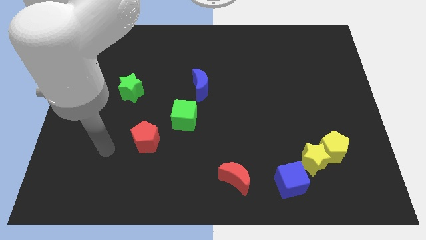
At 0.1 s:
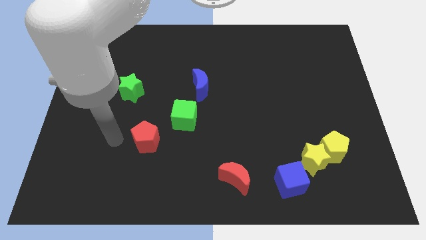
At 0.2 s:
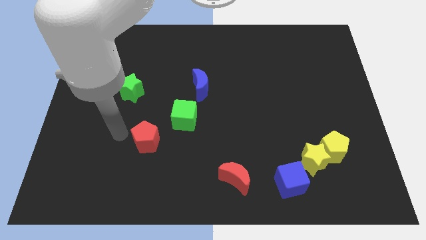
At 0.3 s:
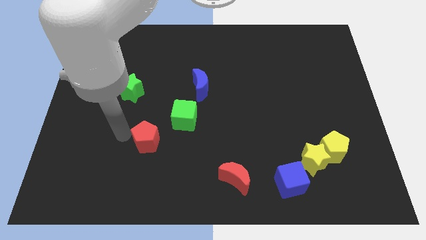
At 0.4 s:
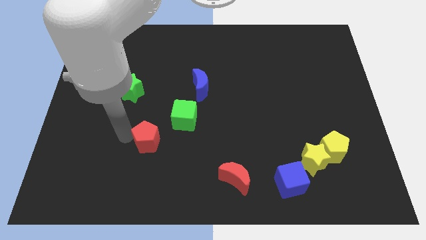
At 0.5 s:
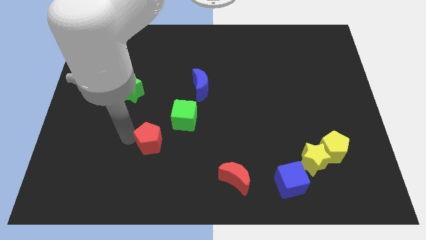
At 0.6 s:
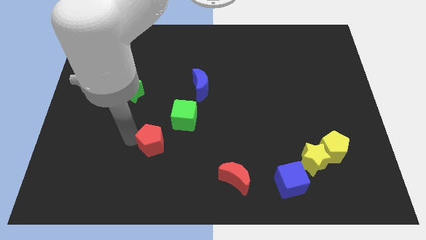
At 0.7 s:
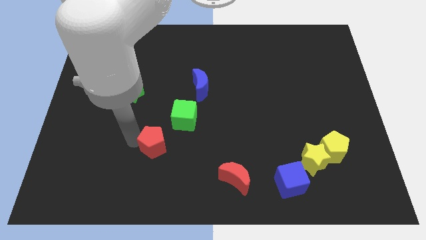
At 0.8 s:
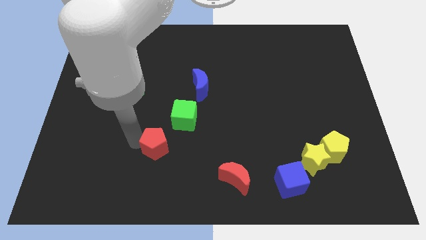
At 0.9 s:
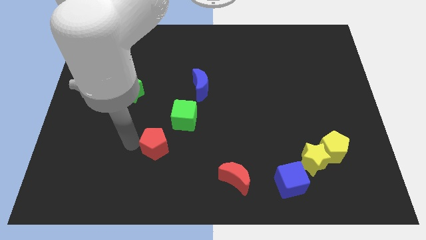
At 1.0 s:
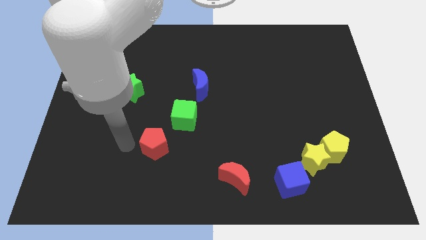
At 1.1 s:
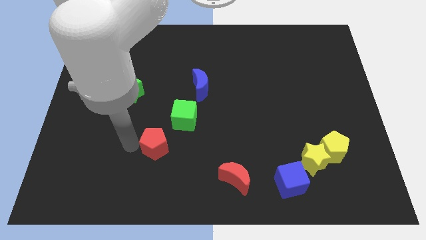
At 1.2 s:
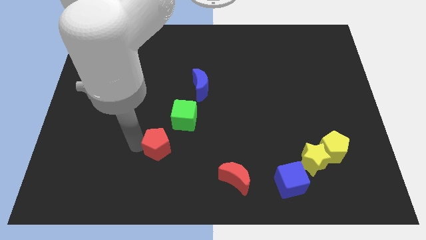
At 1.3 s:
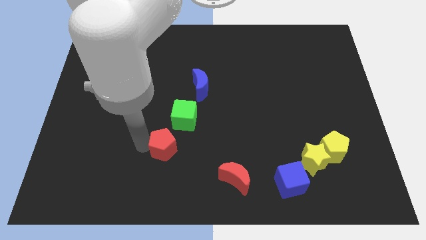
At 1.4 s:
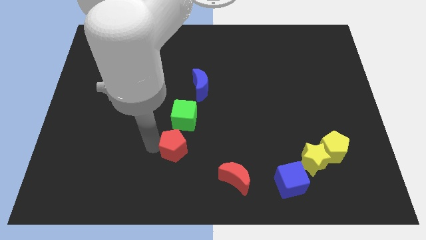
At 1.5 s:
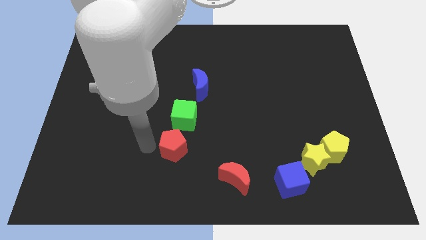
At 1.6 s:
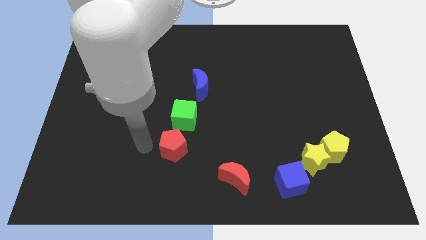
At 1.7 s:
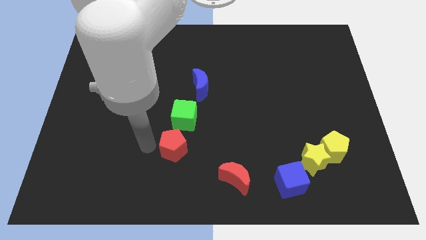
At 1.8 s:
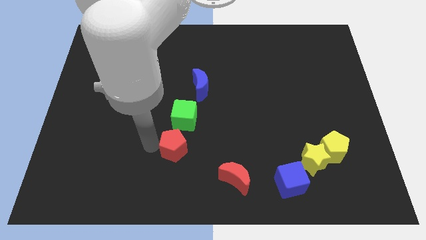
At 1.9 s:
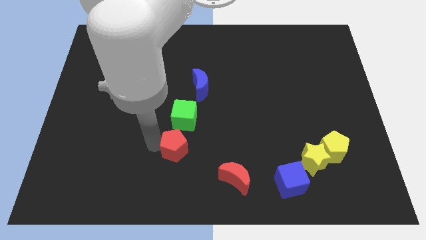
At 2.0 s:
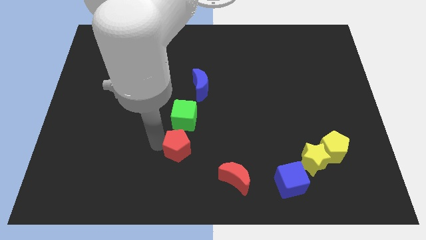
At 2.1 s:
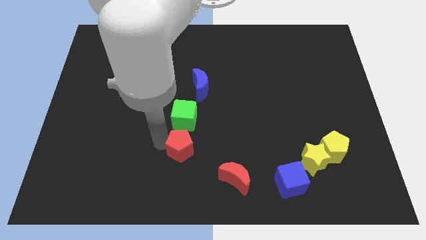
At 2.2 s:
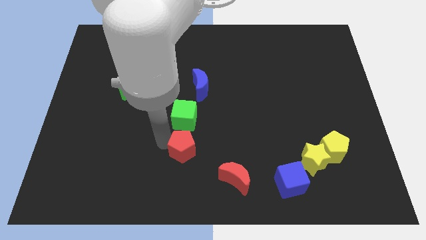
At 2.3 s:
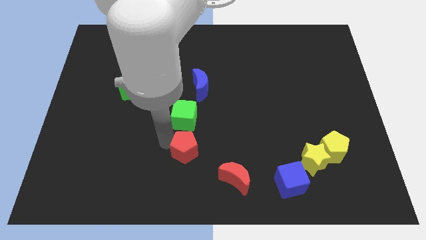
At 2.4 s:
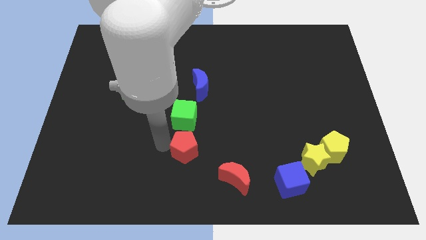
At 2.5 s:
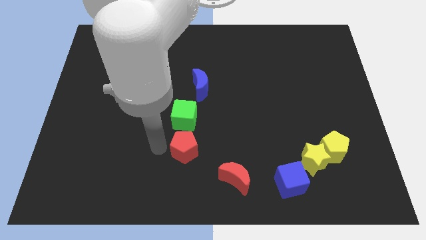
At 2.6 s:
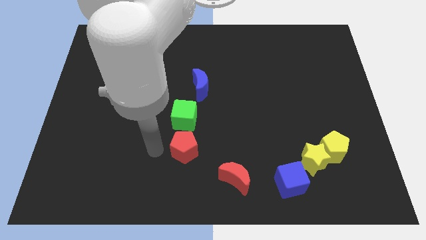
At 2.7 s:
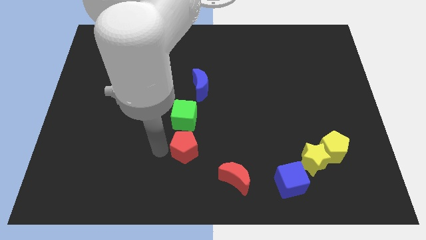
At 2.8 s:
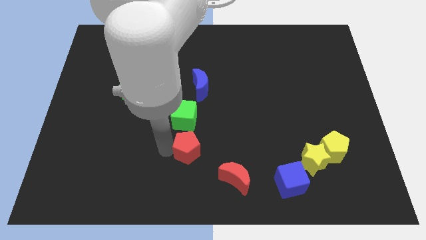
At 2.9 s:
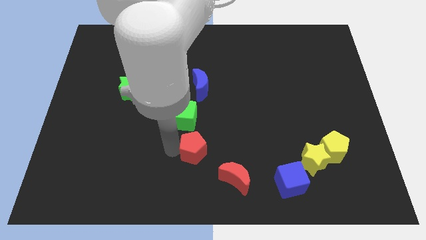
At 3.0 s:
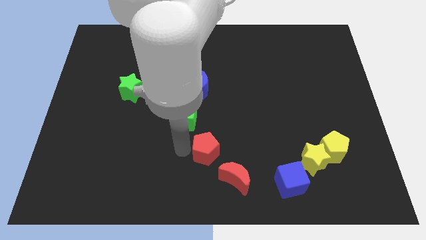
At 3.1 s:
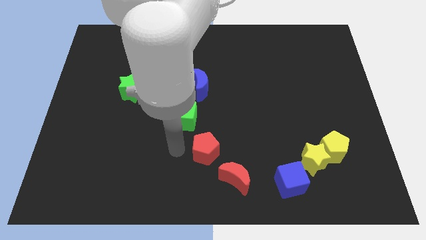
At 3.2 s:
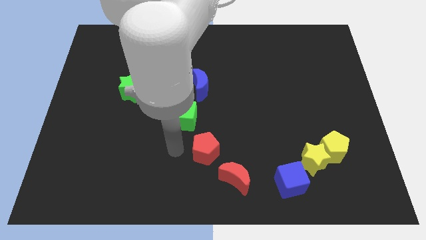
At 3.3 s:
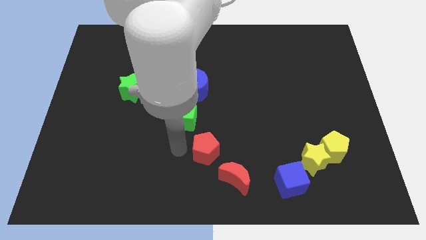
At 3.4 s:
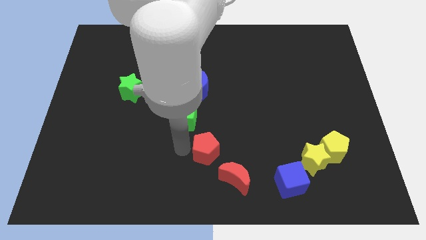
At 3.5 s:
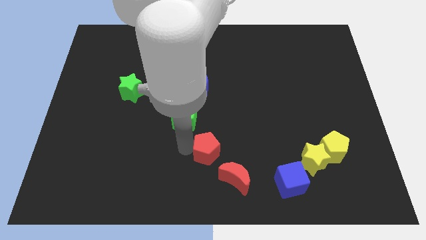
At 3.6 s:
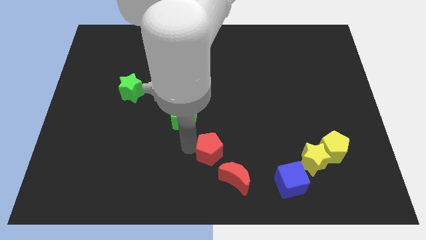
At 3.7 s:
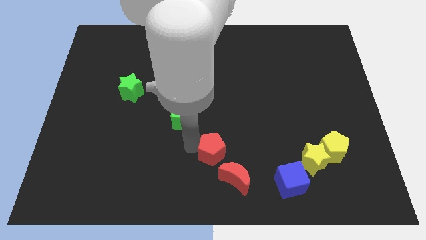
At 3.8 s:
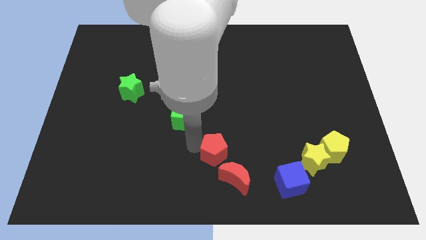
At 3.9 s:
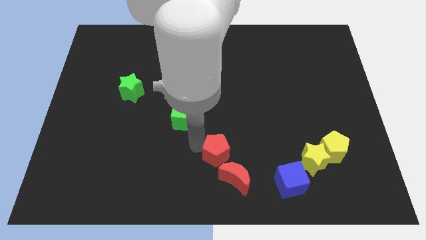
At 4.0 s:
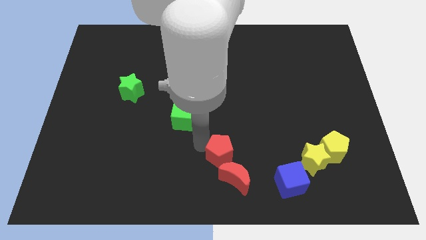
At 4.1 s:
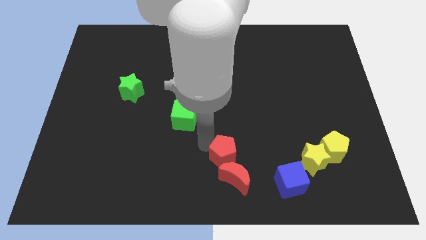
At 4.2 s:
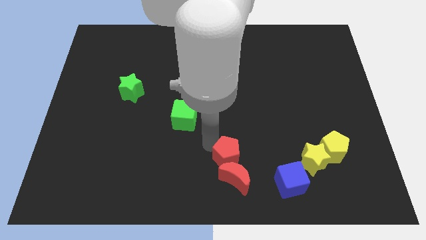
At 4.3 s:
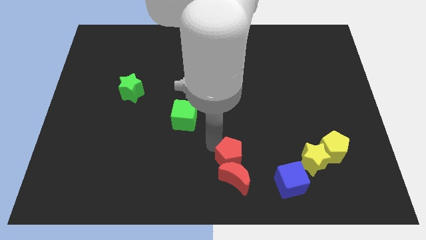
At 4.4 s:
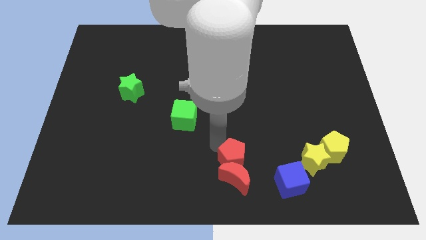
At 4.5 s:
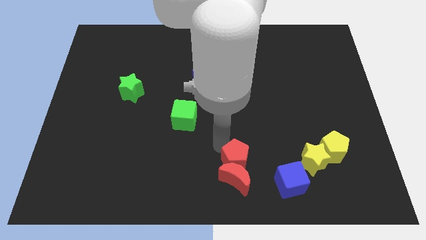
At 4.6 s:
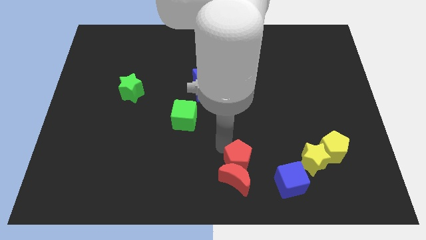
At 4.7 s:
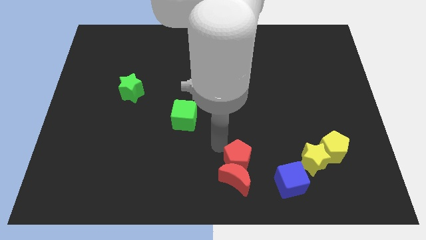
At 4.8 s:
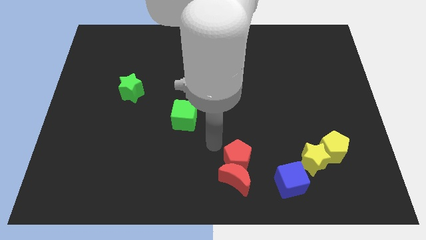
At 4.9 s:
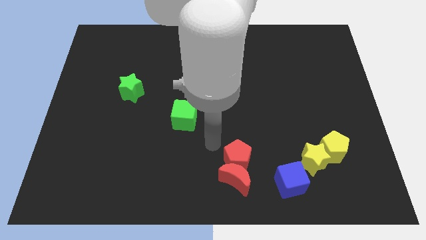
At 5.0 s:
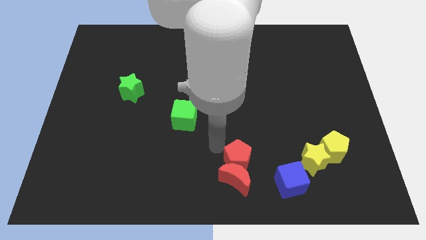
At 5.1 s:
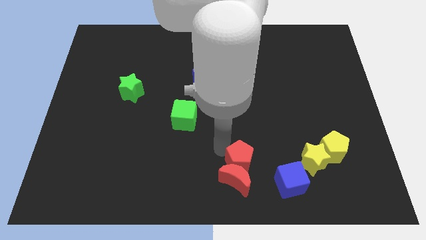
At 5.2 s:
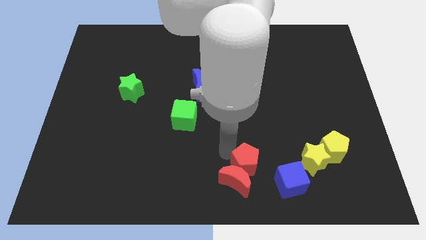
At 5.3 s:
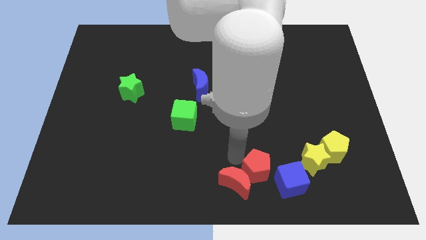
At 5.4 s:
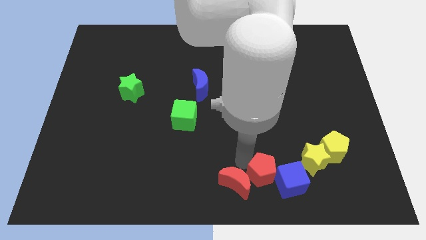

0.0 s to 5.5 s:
push the red pentagon next to the blue cube

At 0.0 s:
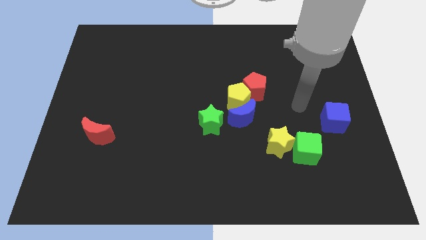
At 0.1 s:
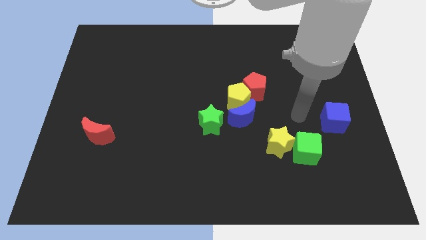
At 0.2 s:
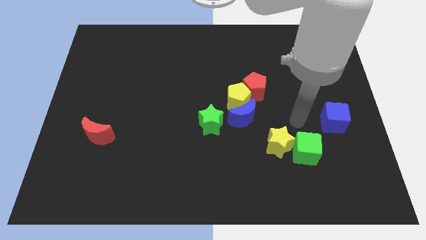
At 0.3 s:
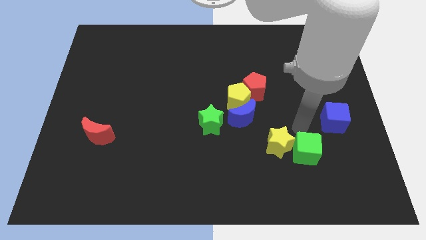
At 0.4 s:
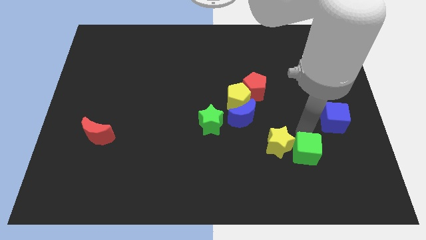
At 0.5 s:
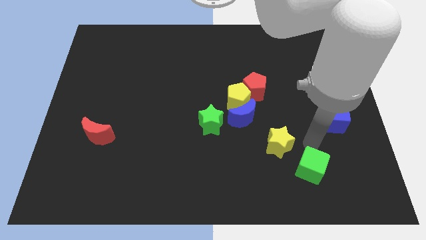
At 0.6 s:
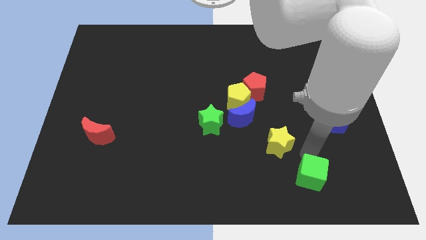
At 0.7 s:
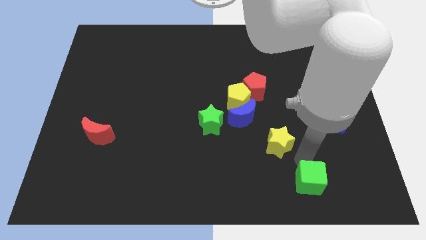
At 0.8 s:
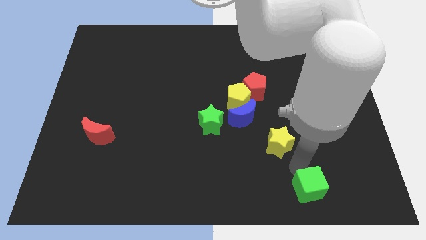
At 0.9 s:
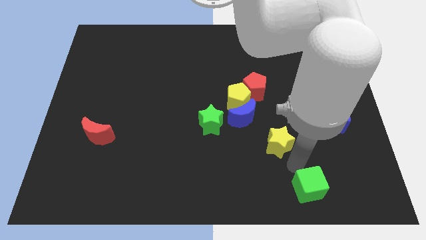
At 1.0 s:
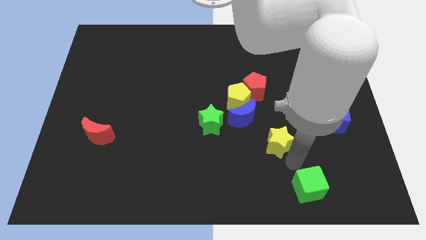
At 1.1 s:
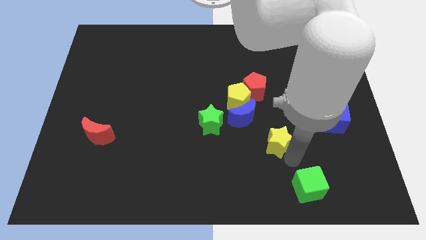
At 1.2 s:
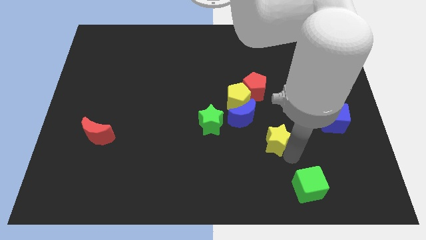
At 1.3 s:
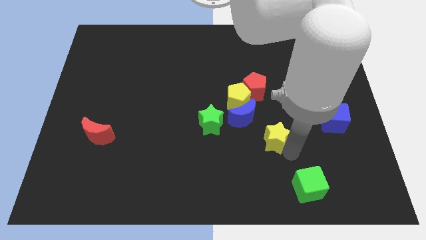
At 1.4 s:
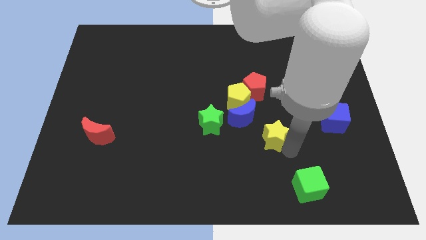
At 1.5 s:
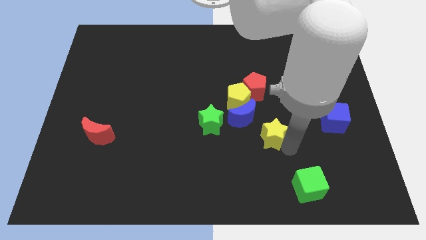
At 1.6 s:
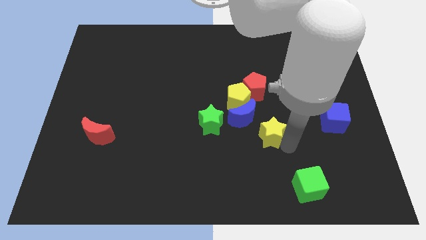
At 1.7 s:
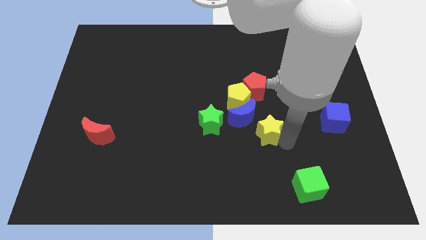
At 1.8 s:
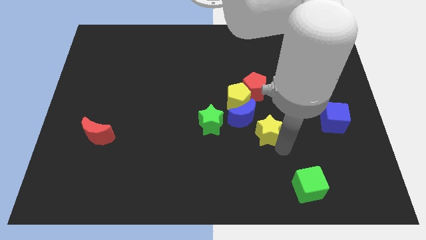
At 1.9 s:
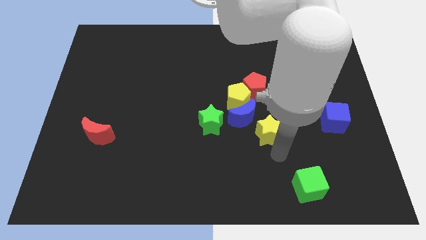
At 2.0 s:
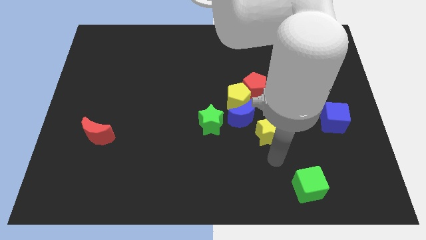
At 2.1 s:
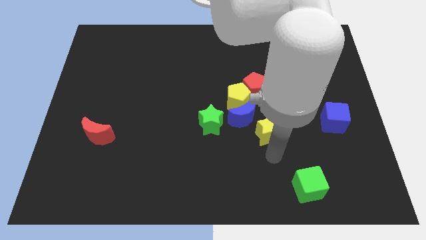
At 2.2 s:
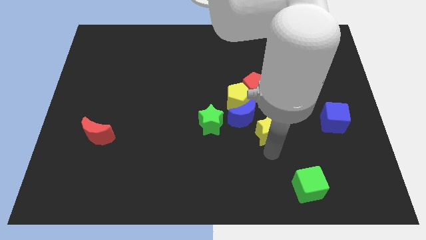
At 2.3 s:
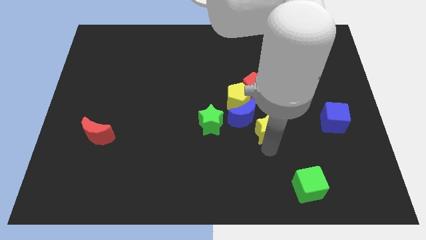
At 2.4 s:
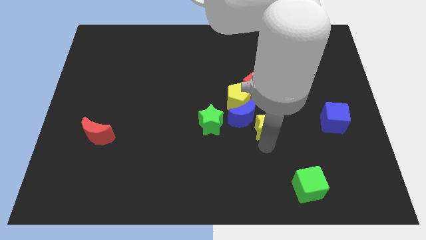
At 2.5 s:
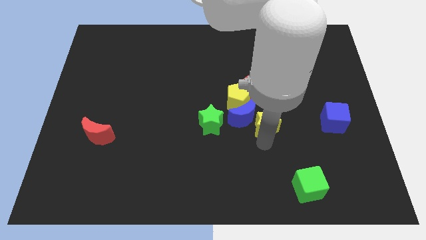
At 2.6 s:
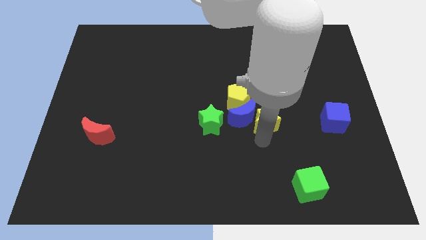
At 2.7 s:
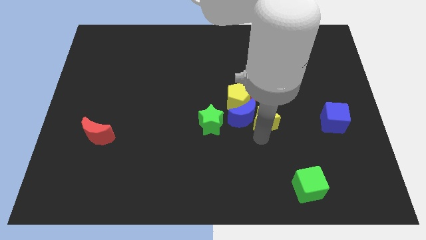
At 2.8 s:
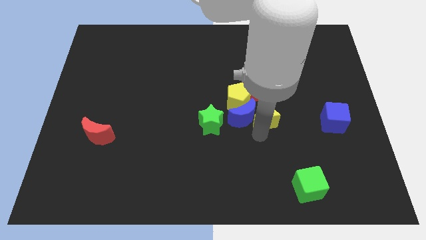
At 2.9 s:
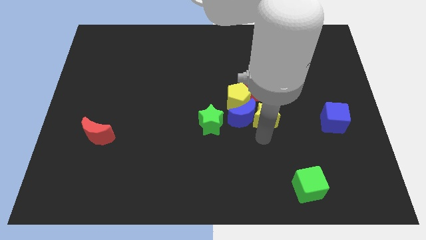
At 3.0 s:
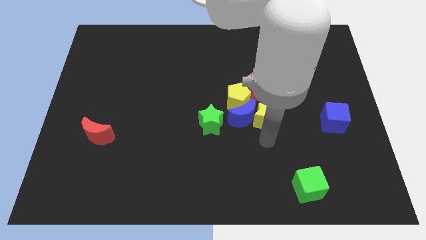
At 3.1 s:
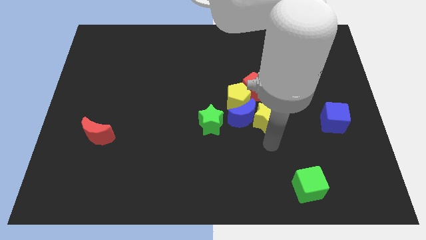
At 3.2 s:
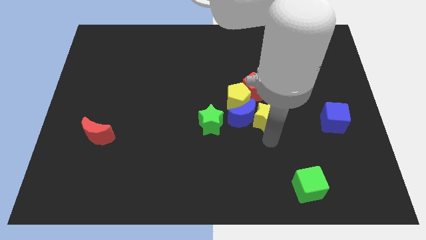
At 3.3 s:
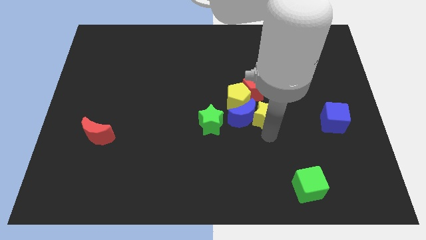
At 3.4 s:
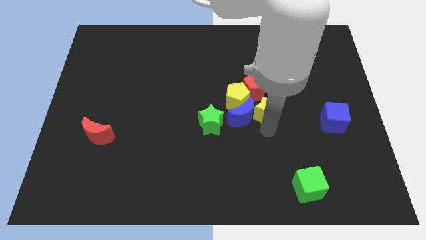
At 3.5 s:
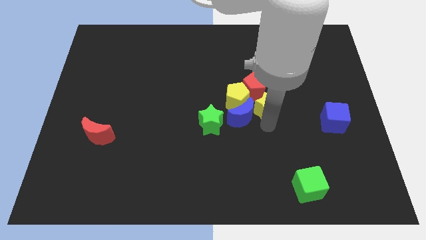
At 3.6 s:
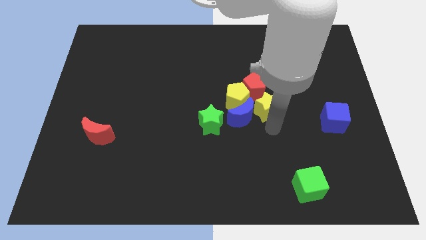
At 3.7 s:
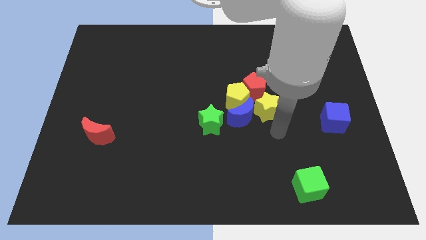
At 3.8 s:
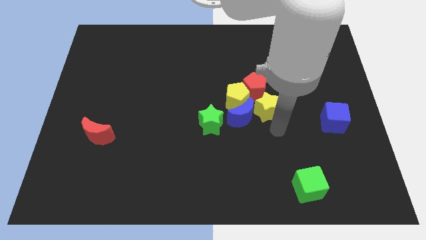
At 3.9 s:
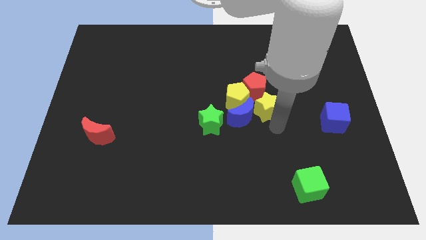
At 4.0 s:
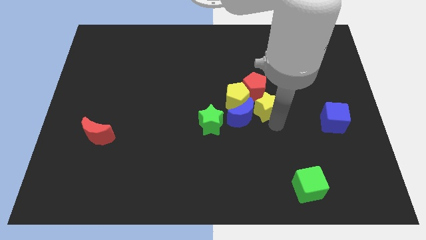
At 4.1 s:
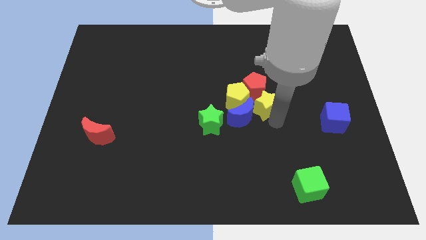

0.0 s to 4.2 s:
move the yellow star close to the red pentagon
